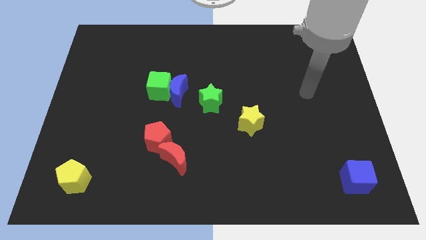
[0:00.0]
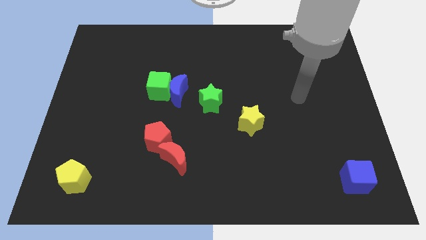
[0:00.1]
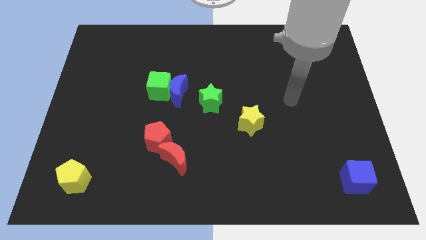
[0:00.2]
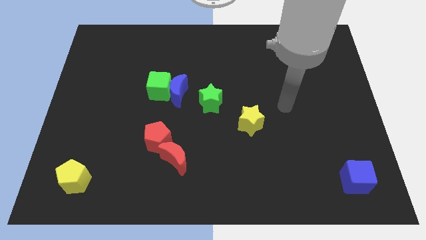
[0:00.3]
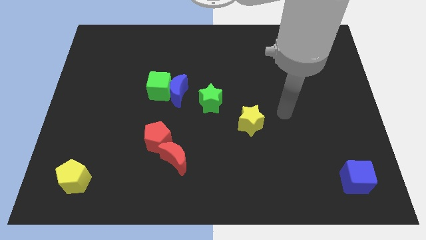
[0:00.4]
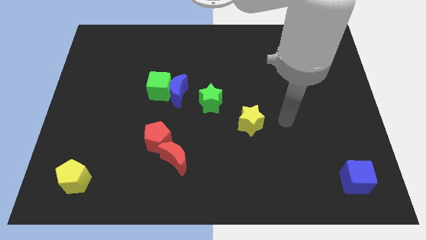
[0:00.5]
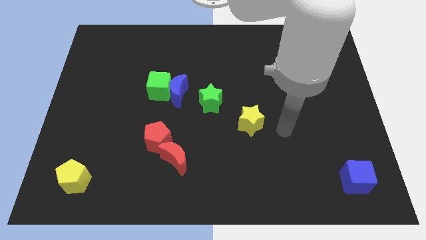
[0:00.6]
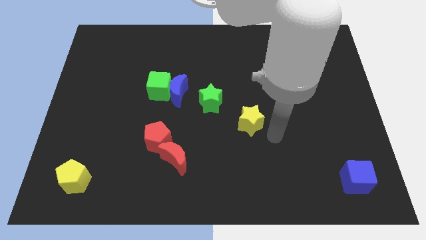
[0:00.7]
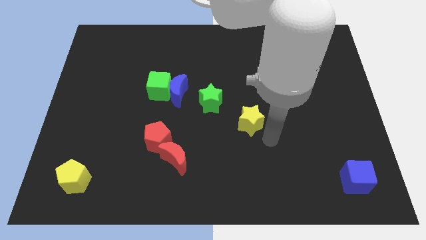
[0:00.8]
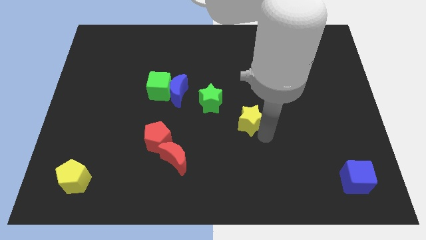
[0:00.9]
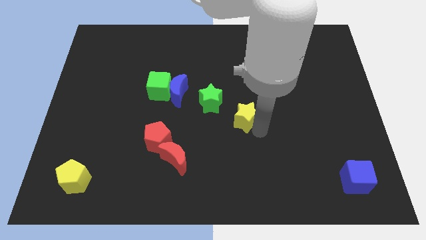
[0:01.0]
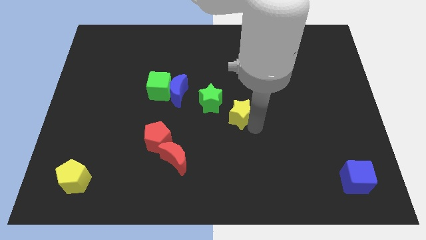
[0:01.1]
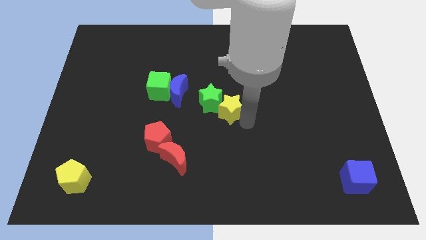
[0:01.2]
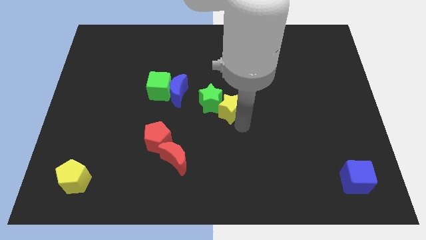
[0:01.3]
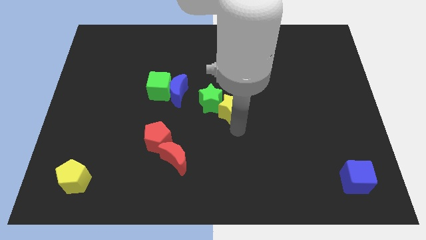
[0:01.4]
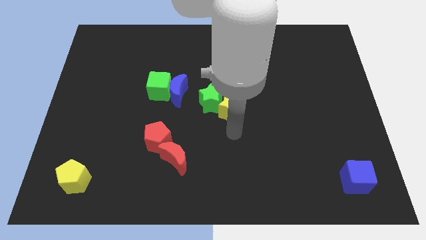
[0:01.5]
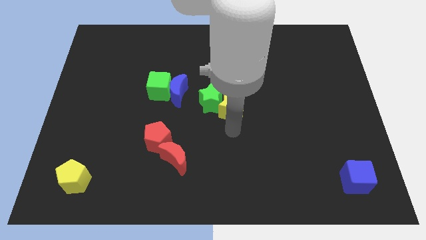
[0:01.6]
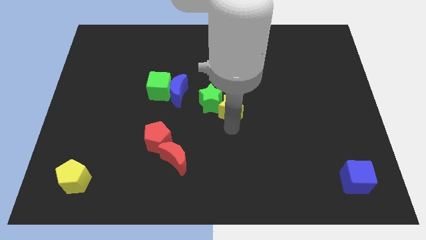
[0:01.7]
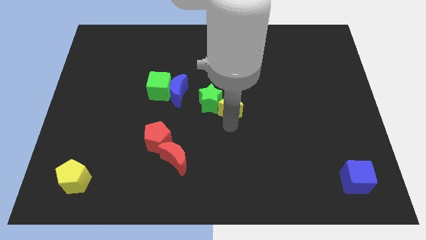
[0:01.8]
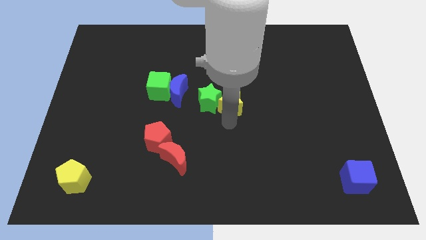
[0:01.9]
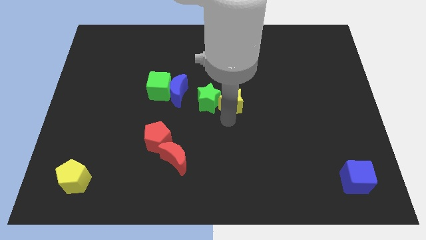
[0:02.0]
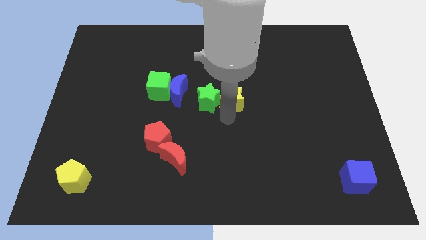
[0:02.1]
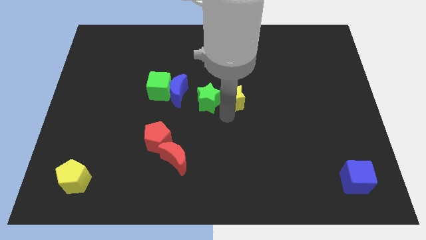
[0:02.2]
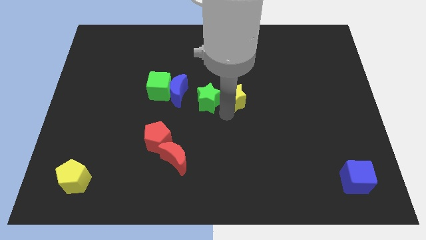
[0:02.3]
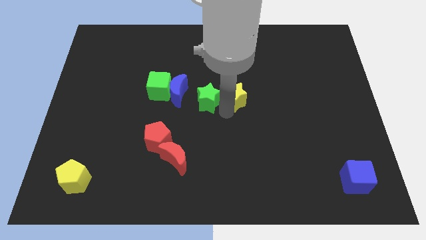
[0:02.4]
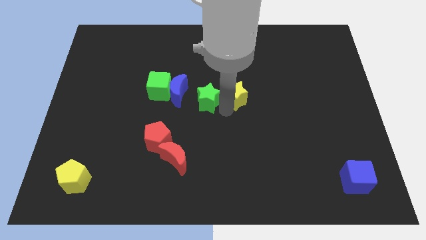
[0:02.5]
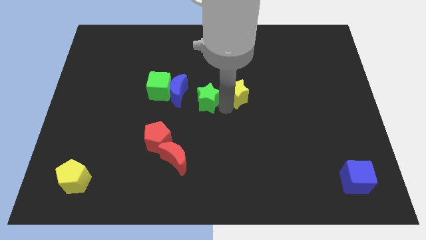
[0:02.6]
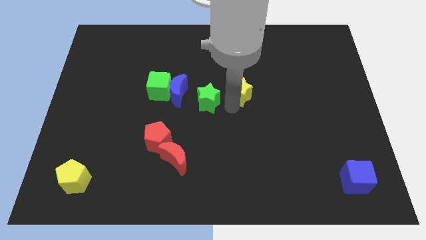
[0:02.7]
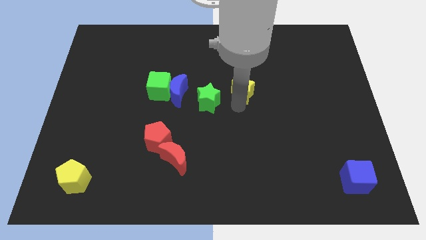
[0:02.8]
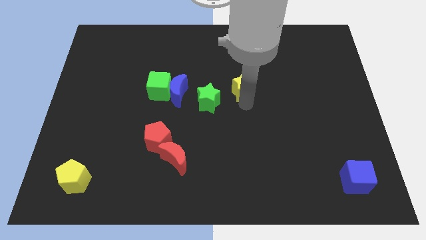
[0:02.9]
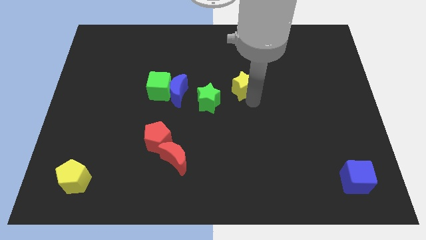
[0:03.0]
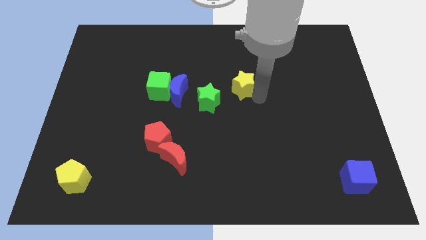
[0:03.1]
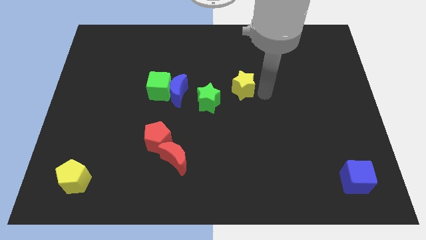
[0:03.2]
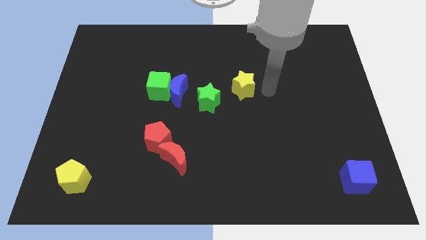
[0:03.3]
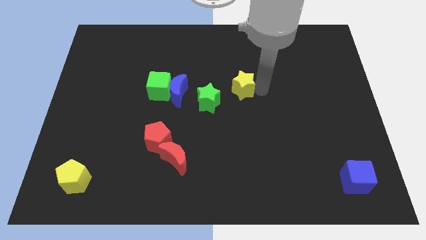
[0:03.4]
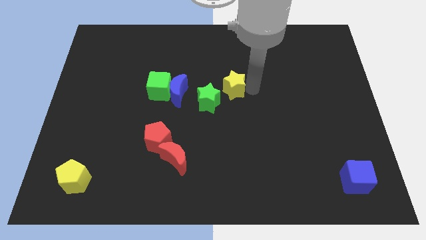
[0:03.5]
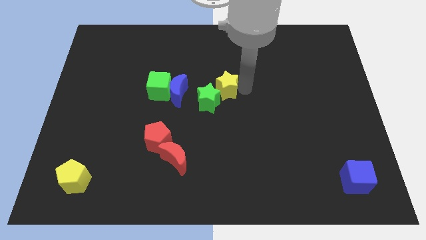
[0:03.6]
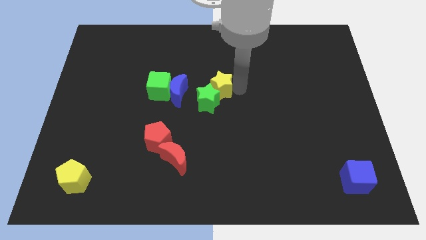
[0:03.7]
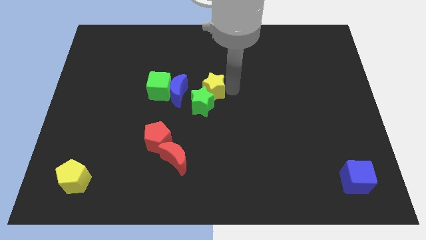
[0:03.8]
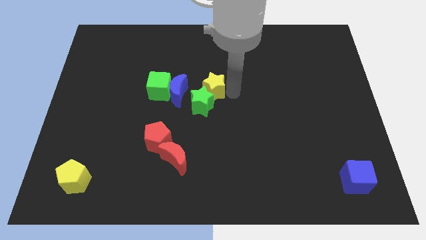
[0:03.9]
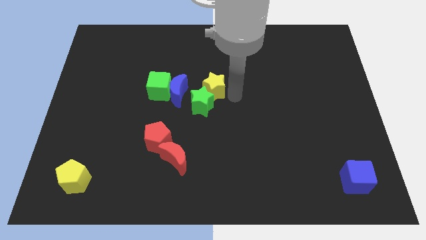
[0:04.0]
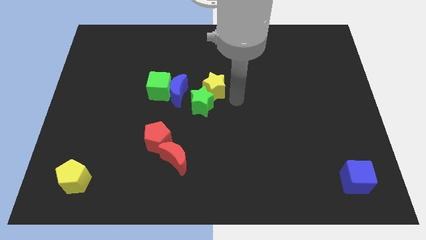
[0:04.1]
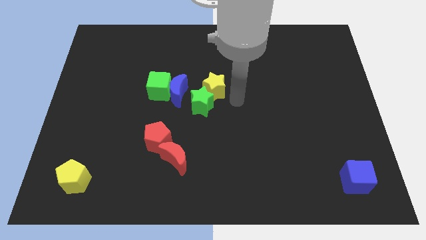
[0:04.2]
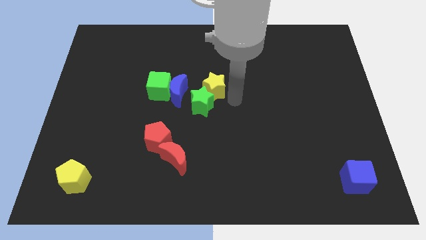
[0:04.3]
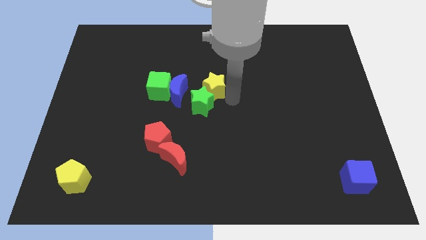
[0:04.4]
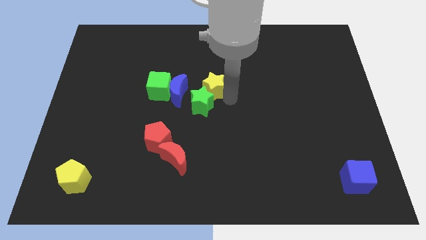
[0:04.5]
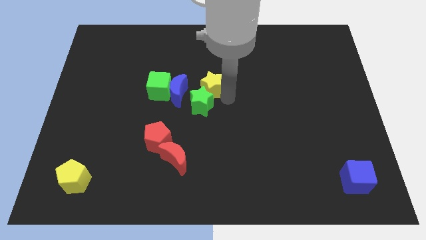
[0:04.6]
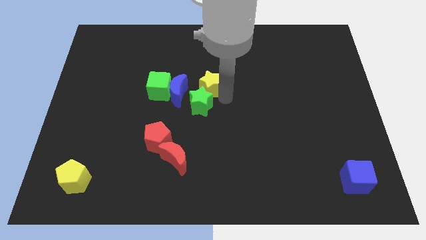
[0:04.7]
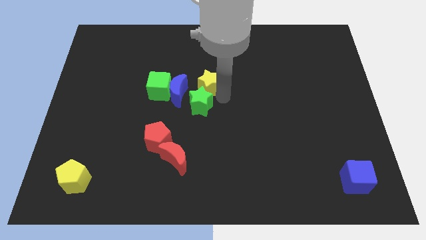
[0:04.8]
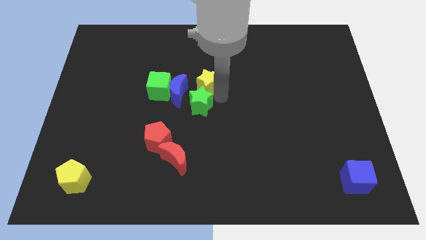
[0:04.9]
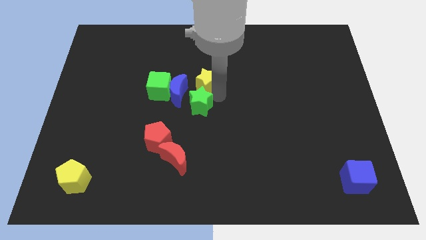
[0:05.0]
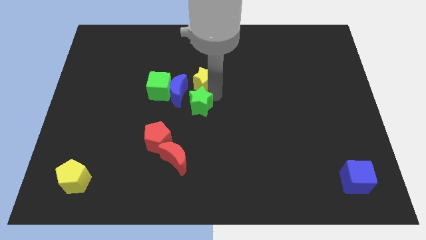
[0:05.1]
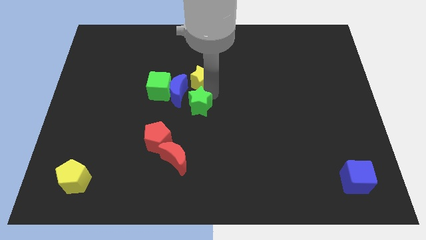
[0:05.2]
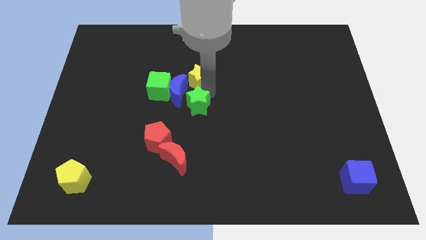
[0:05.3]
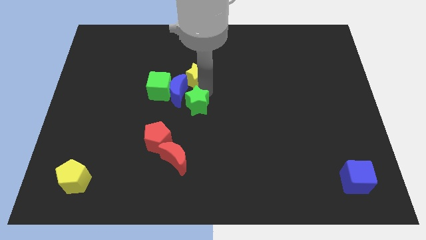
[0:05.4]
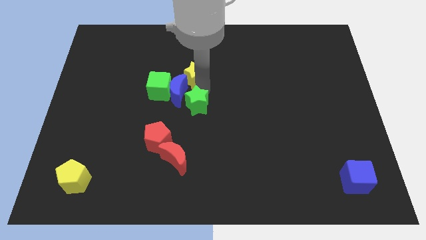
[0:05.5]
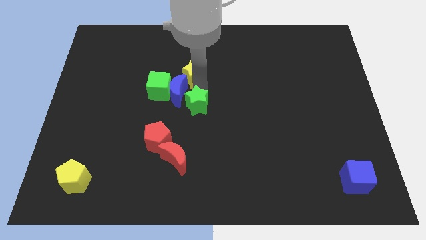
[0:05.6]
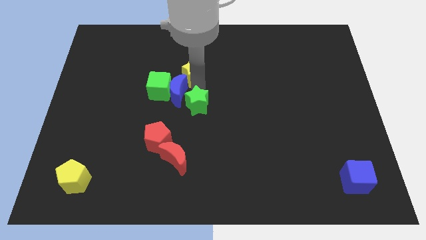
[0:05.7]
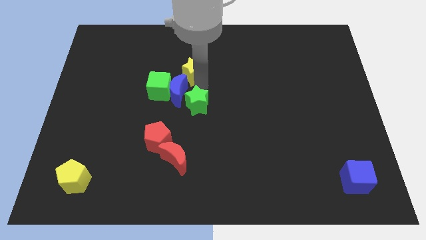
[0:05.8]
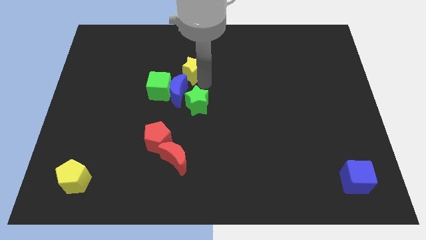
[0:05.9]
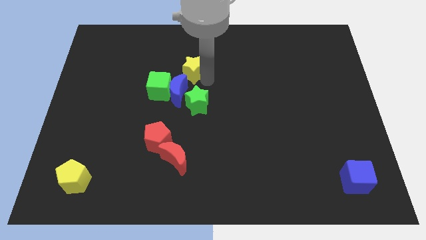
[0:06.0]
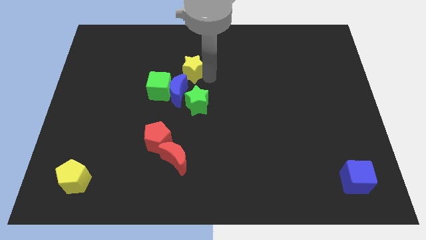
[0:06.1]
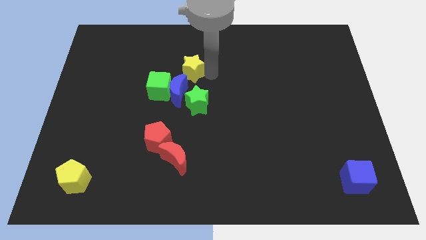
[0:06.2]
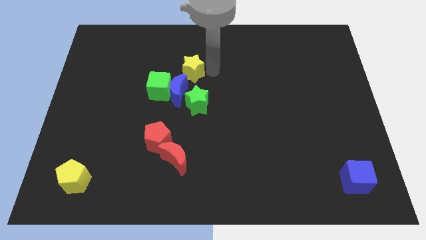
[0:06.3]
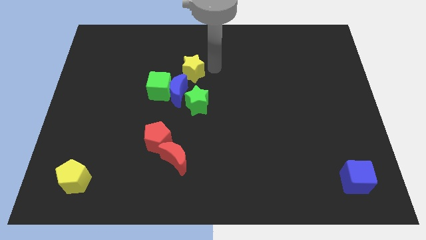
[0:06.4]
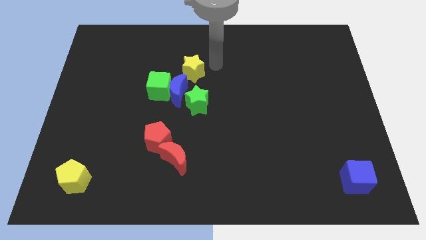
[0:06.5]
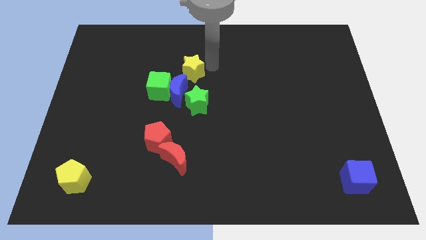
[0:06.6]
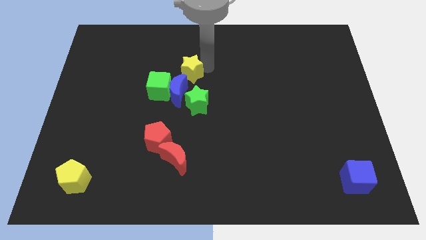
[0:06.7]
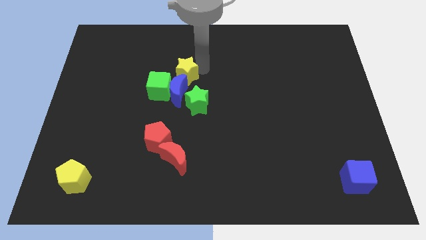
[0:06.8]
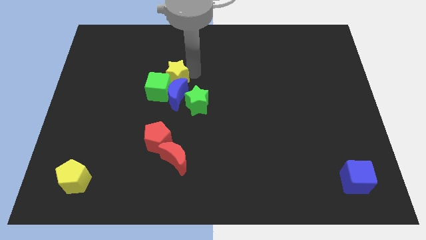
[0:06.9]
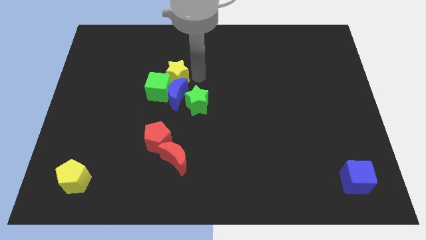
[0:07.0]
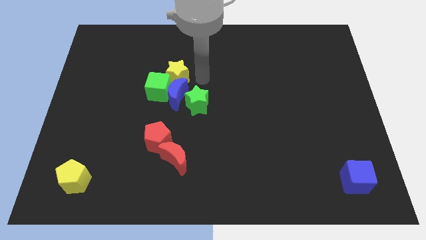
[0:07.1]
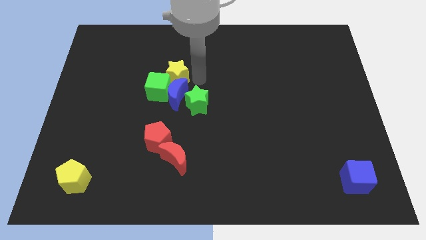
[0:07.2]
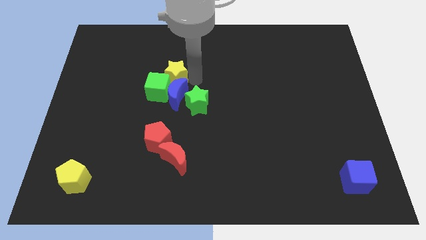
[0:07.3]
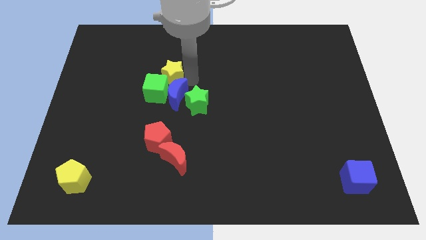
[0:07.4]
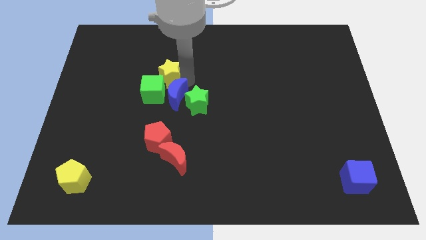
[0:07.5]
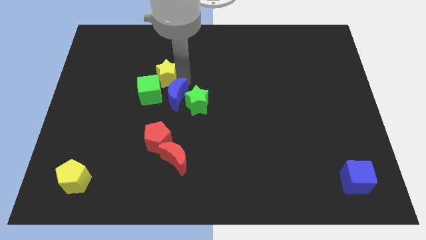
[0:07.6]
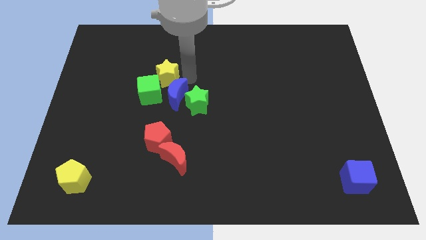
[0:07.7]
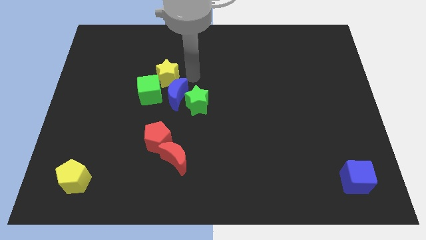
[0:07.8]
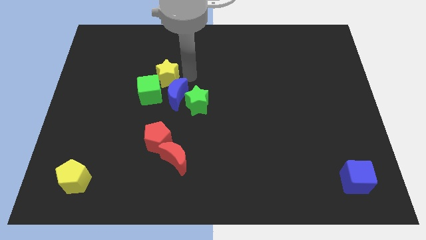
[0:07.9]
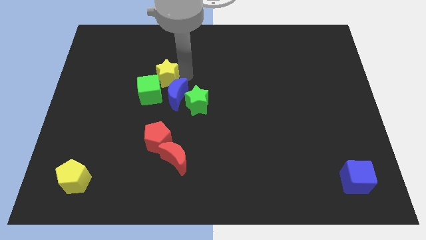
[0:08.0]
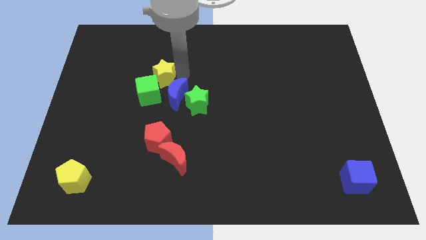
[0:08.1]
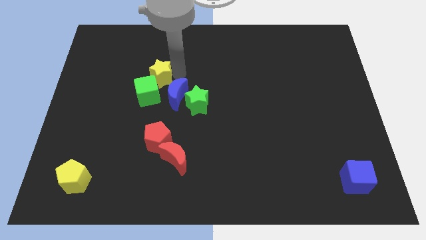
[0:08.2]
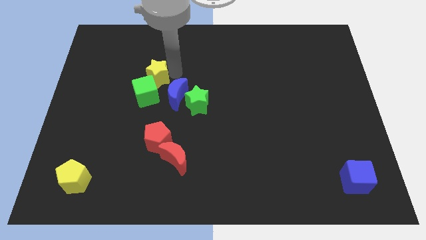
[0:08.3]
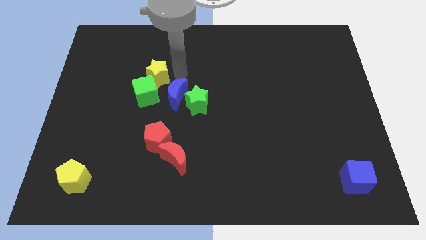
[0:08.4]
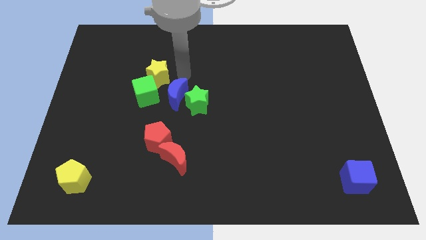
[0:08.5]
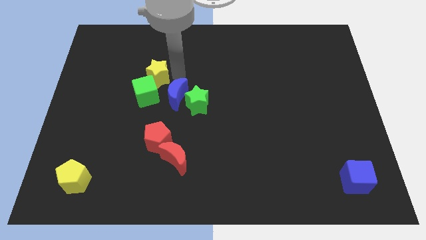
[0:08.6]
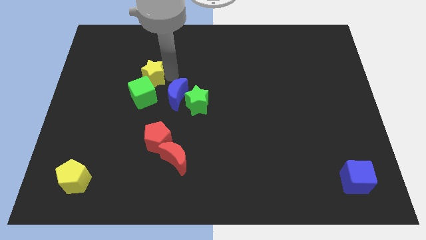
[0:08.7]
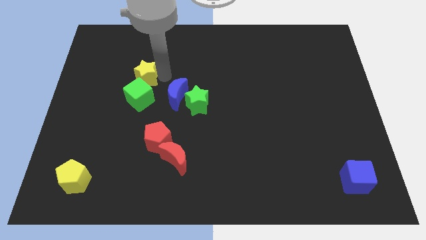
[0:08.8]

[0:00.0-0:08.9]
move the yellow star to the top left of the green cube
